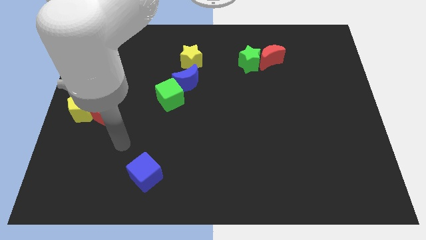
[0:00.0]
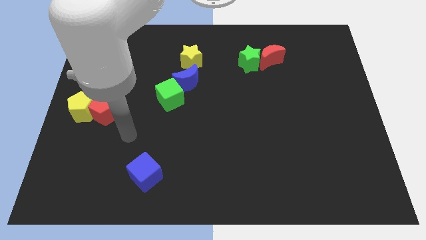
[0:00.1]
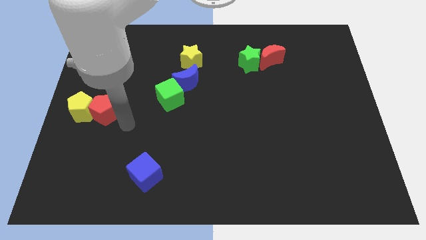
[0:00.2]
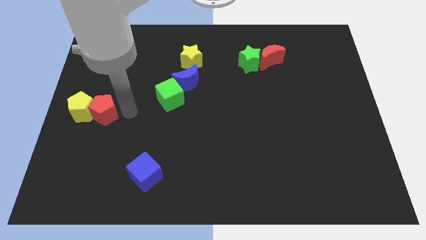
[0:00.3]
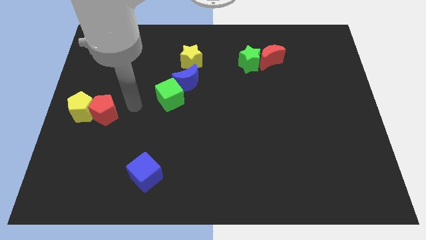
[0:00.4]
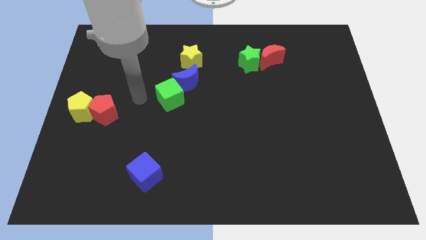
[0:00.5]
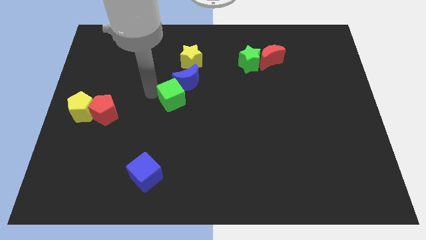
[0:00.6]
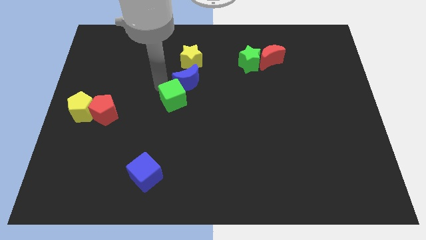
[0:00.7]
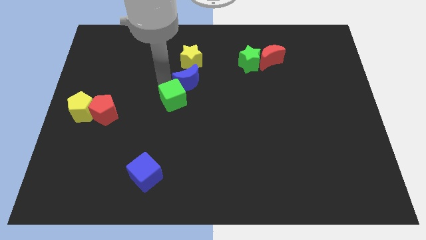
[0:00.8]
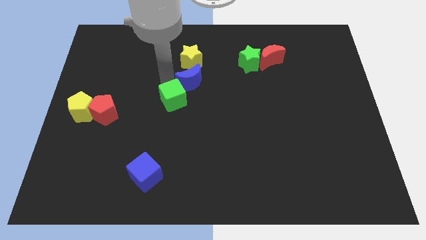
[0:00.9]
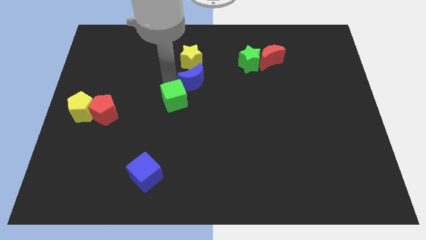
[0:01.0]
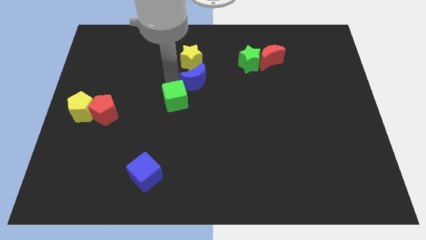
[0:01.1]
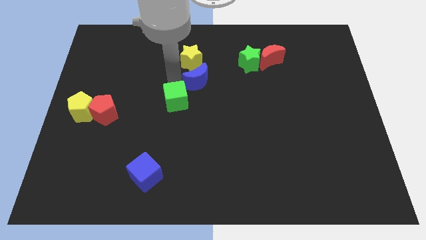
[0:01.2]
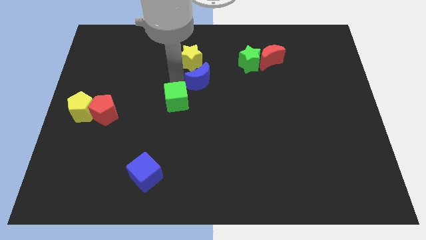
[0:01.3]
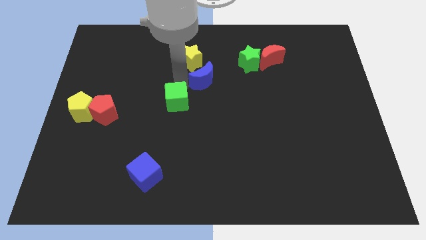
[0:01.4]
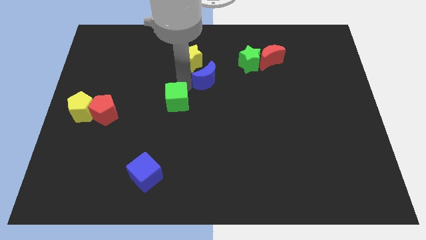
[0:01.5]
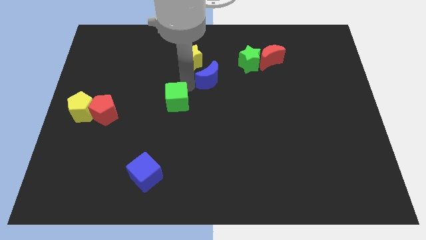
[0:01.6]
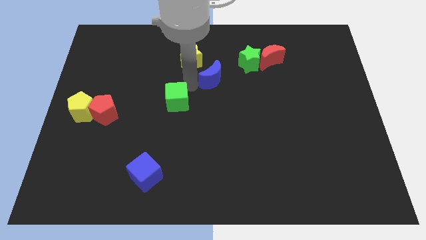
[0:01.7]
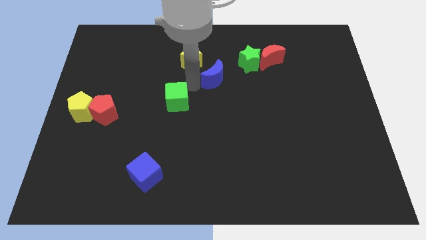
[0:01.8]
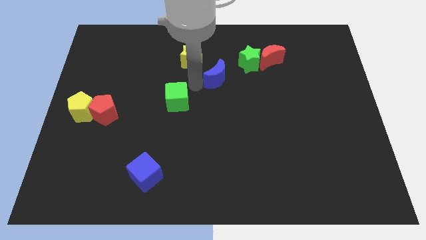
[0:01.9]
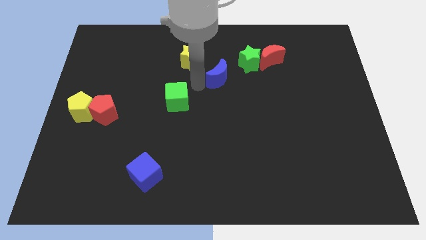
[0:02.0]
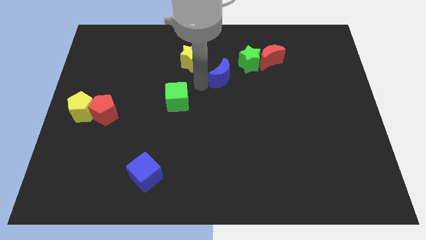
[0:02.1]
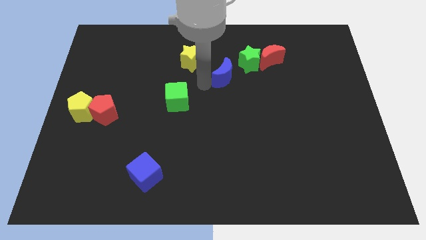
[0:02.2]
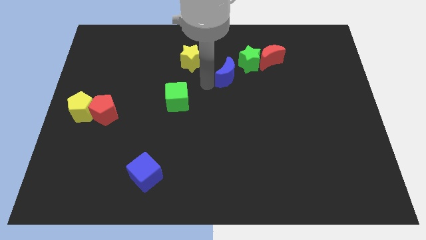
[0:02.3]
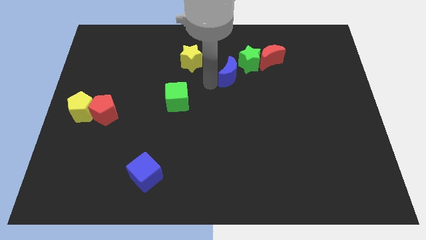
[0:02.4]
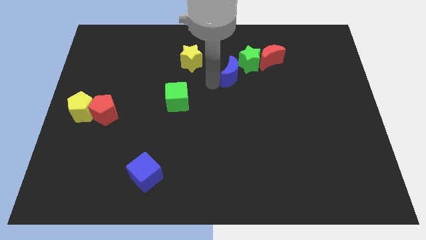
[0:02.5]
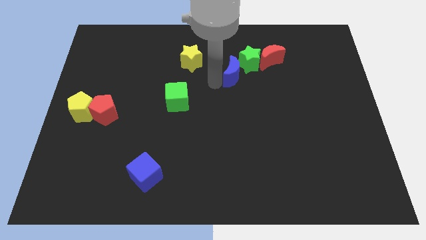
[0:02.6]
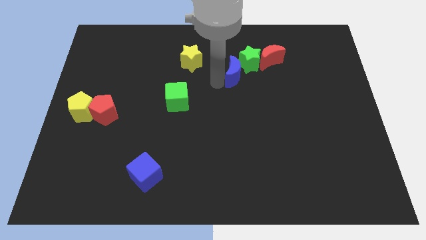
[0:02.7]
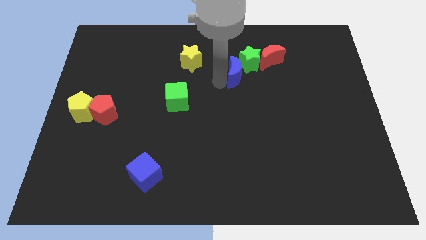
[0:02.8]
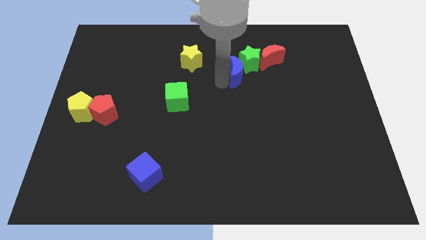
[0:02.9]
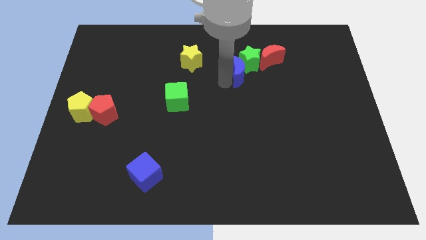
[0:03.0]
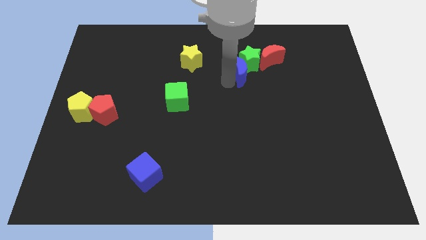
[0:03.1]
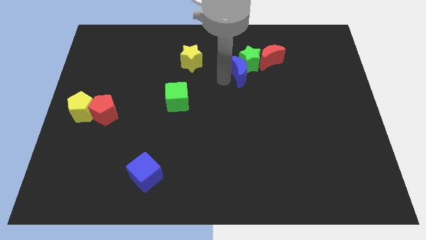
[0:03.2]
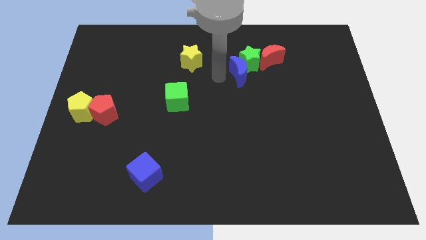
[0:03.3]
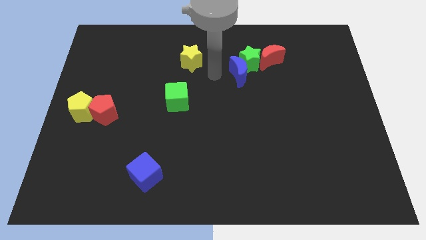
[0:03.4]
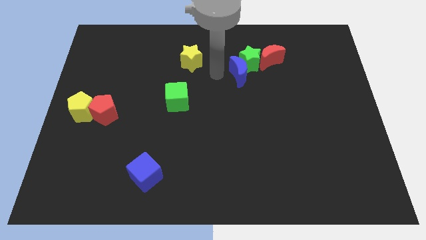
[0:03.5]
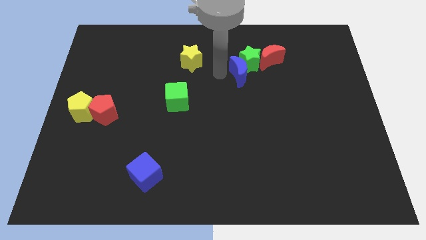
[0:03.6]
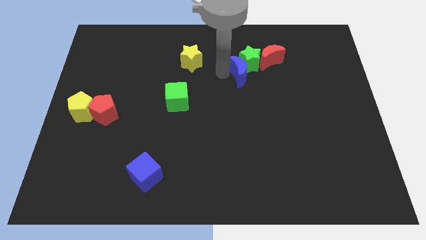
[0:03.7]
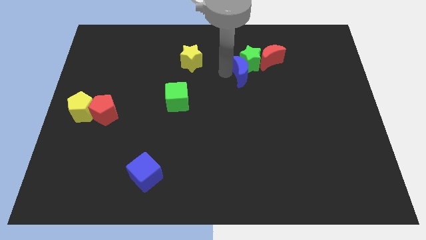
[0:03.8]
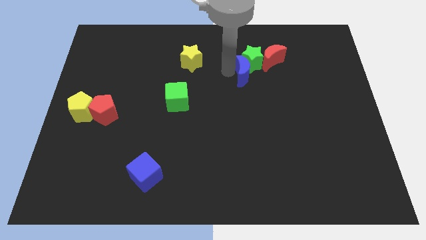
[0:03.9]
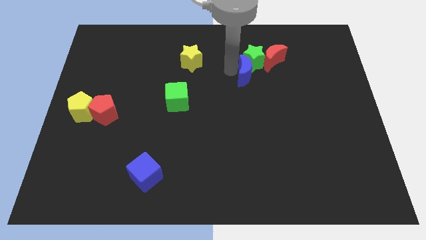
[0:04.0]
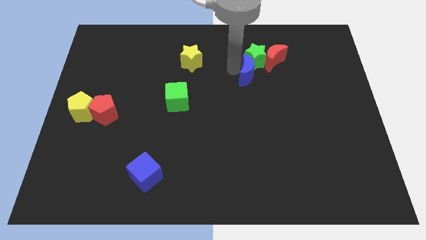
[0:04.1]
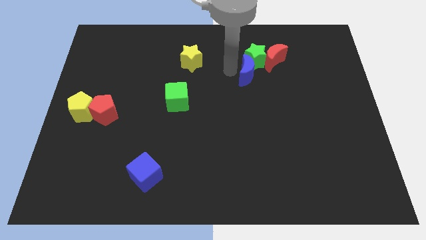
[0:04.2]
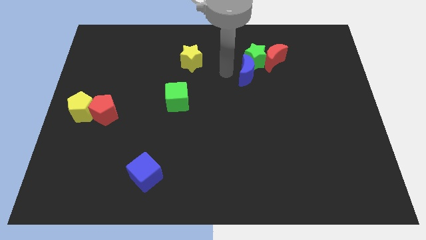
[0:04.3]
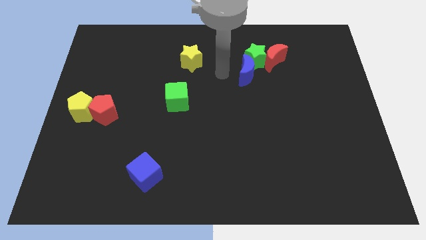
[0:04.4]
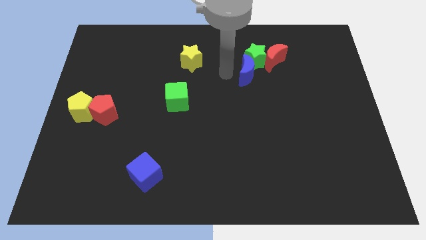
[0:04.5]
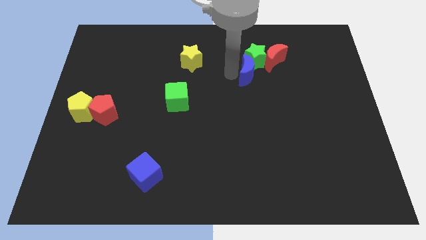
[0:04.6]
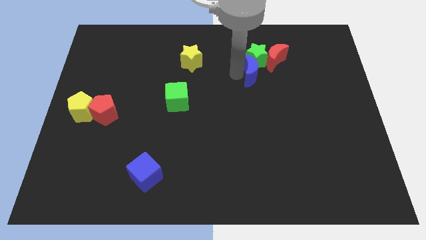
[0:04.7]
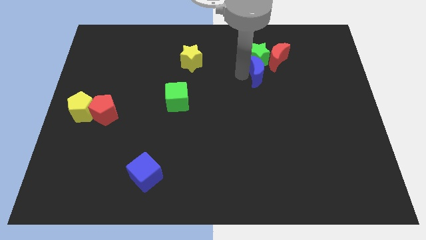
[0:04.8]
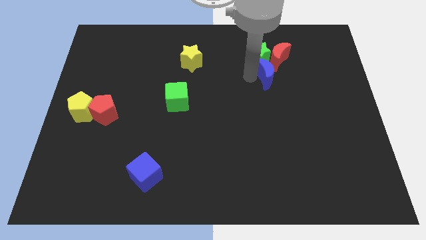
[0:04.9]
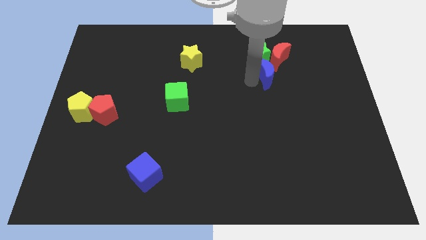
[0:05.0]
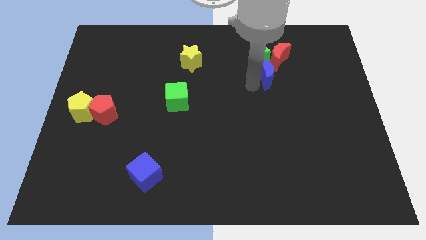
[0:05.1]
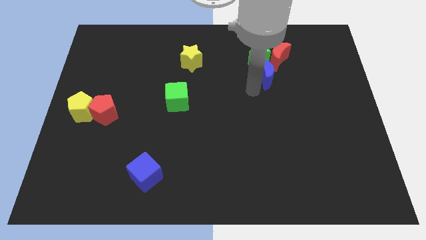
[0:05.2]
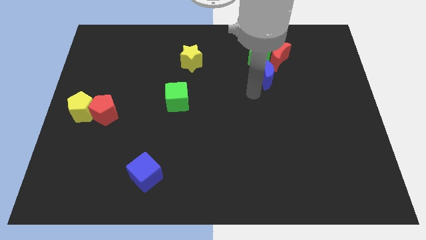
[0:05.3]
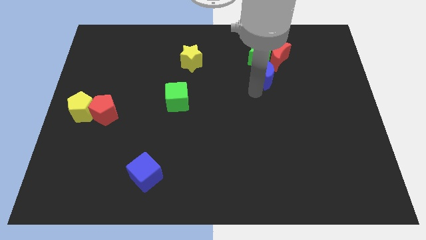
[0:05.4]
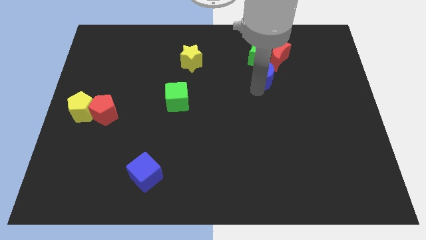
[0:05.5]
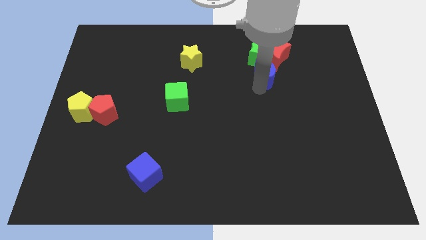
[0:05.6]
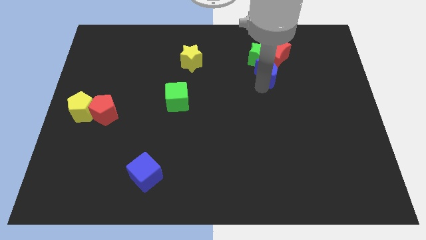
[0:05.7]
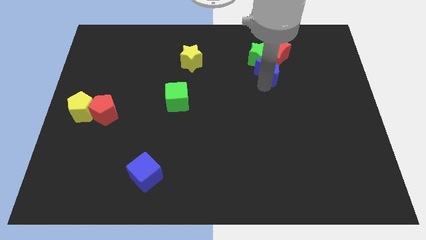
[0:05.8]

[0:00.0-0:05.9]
push the blue moon to the red moon

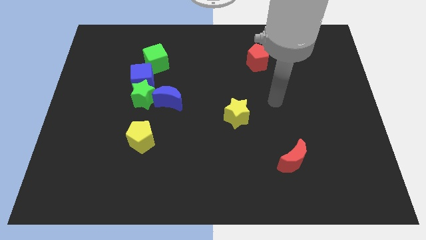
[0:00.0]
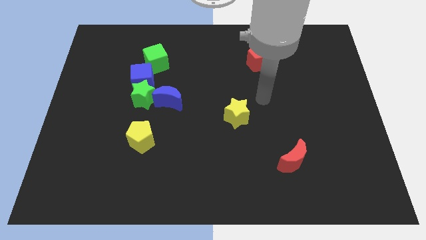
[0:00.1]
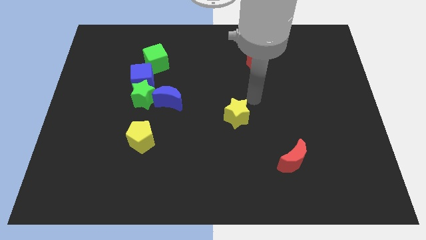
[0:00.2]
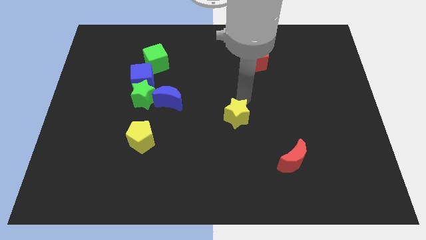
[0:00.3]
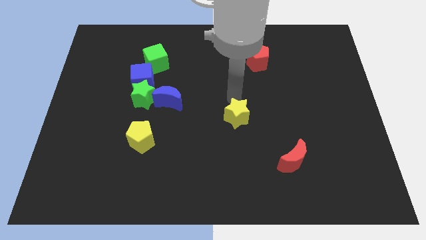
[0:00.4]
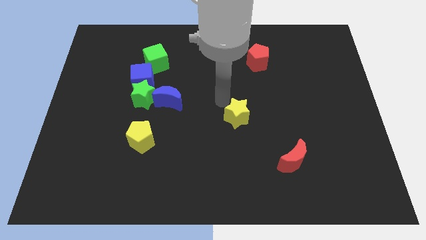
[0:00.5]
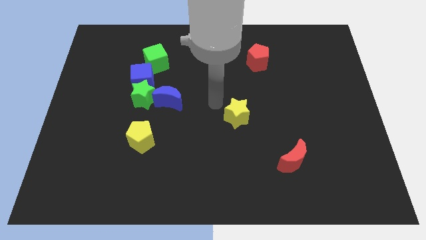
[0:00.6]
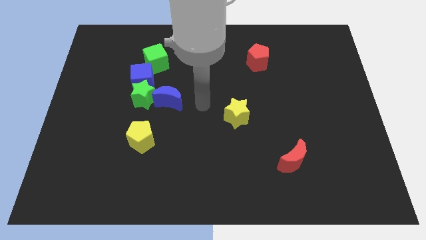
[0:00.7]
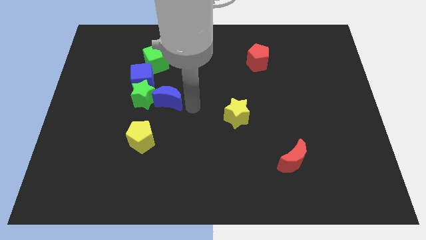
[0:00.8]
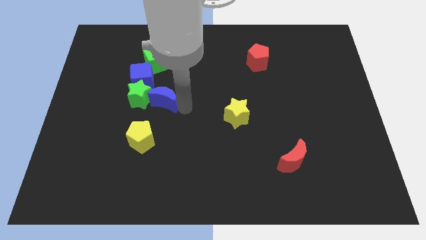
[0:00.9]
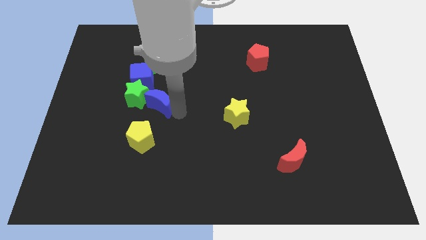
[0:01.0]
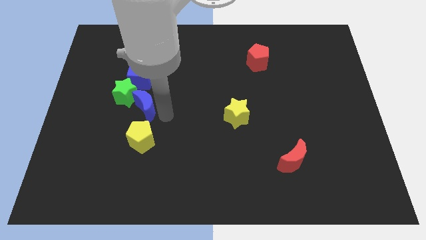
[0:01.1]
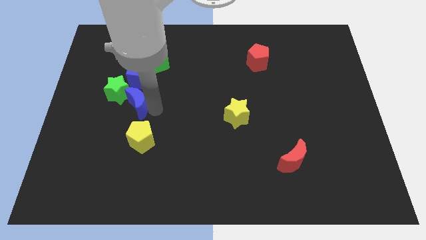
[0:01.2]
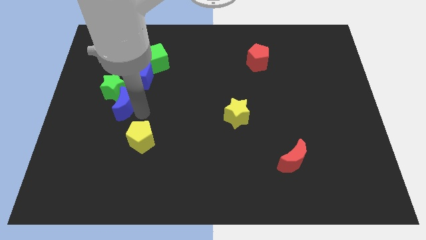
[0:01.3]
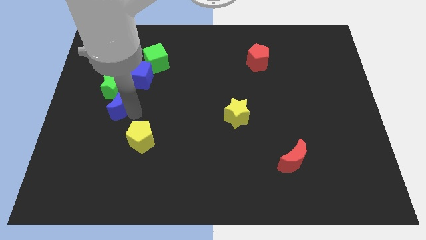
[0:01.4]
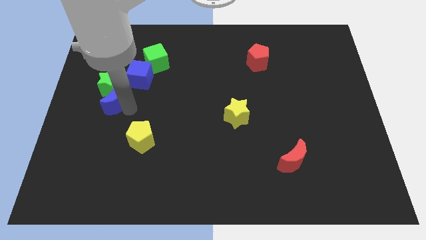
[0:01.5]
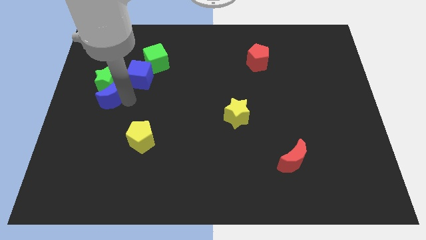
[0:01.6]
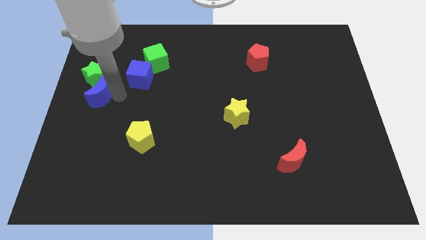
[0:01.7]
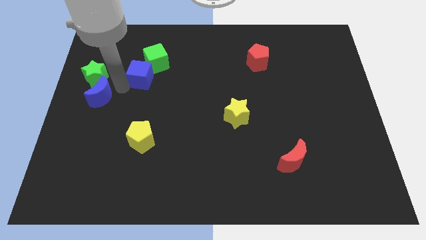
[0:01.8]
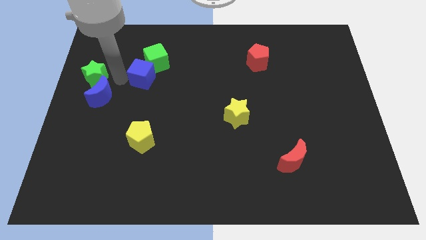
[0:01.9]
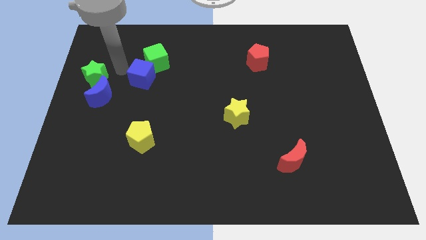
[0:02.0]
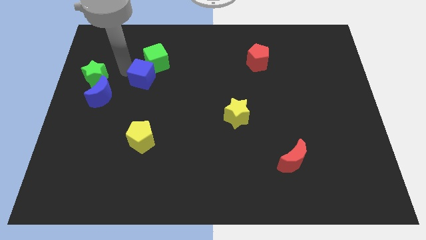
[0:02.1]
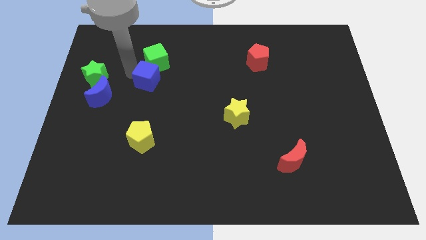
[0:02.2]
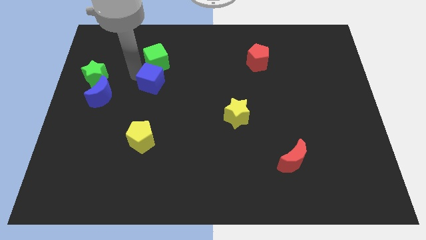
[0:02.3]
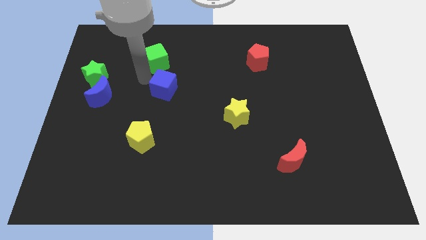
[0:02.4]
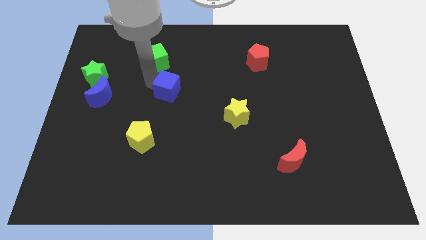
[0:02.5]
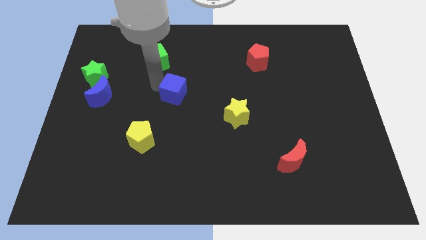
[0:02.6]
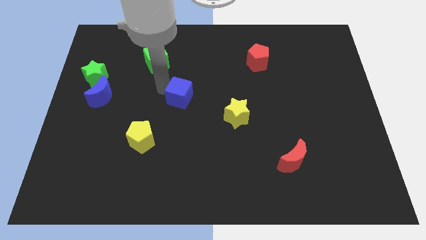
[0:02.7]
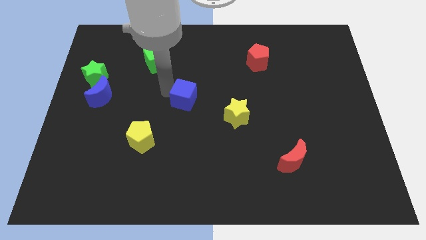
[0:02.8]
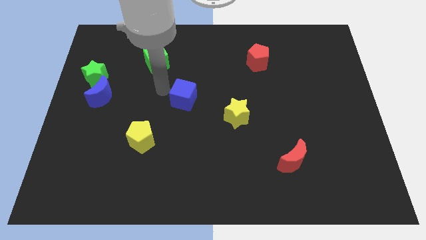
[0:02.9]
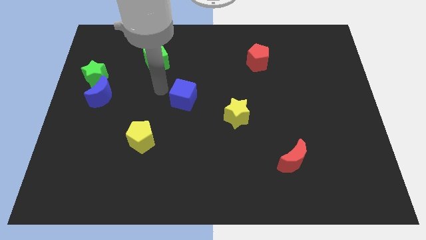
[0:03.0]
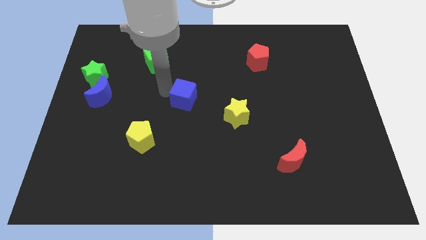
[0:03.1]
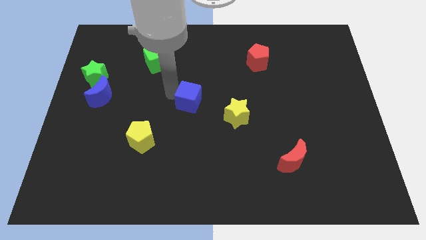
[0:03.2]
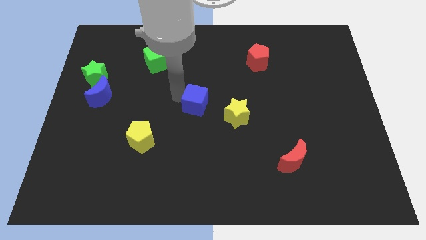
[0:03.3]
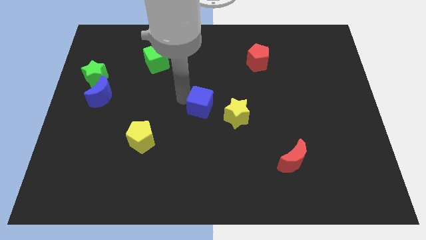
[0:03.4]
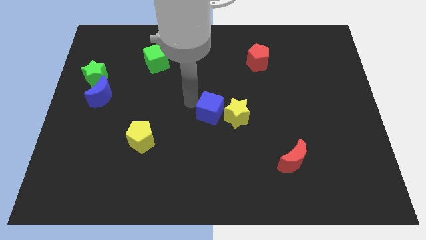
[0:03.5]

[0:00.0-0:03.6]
push the blue cube close to the yellow star
